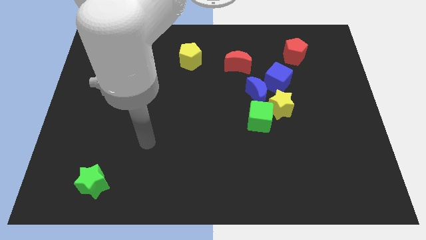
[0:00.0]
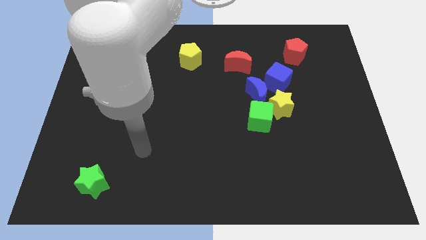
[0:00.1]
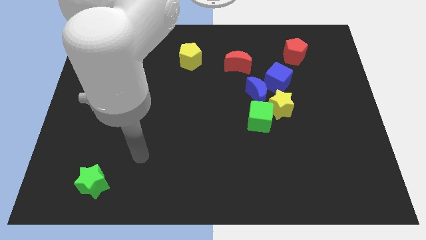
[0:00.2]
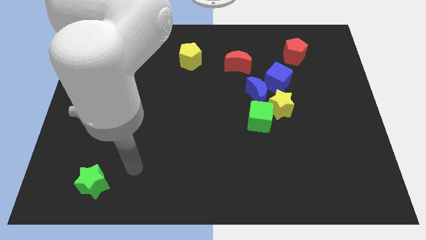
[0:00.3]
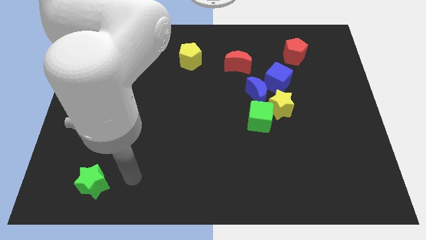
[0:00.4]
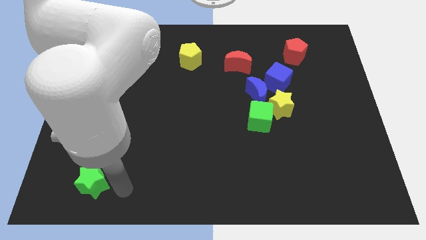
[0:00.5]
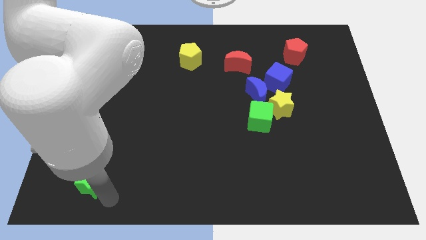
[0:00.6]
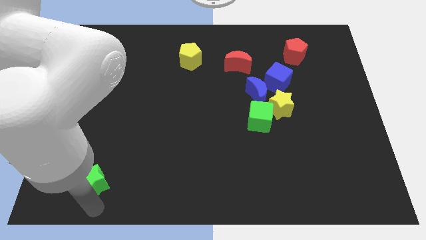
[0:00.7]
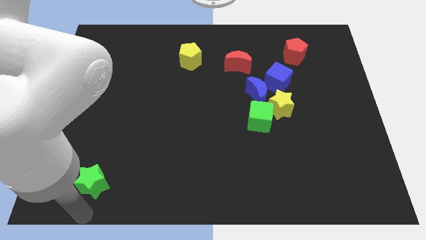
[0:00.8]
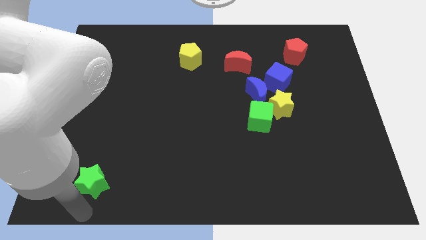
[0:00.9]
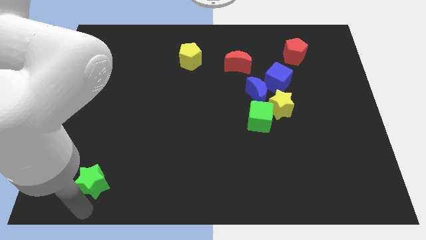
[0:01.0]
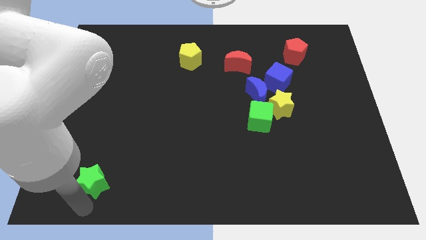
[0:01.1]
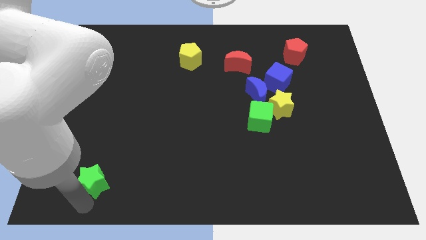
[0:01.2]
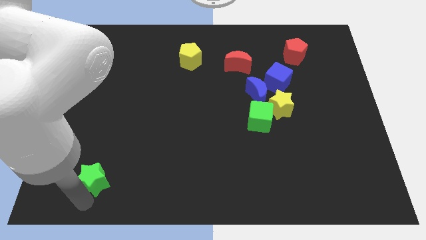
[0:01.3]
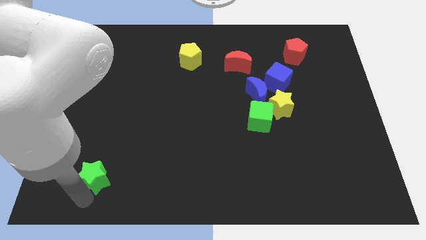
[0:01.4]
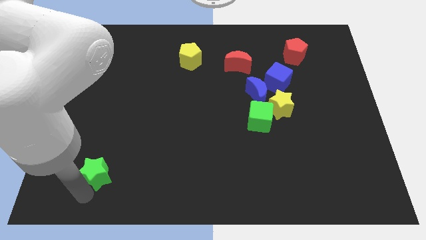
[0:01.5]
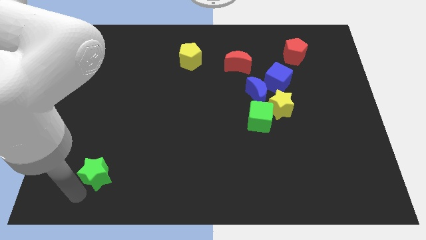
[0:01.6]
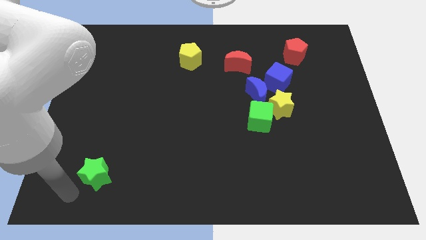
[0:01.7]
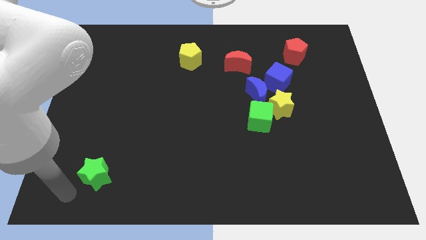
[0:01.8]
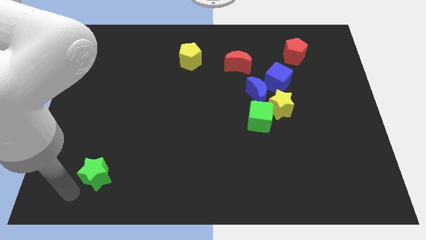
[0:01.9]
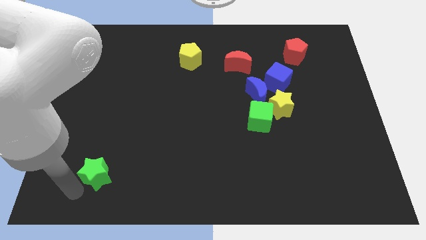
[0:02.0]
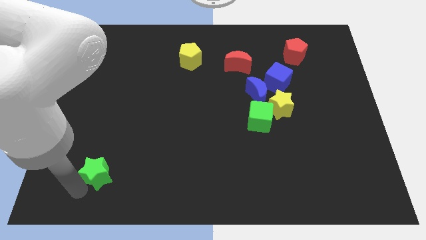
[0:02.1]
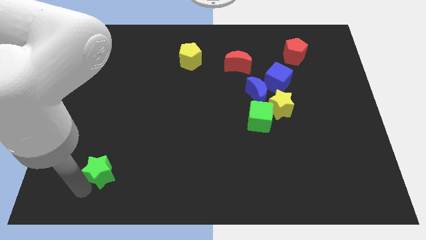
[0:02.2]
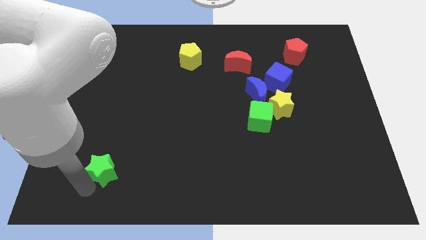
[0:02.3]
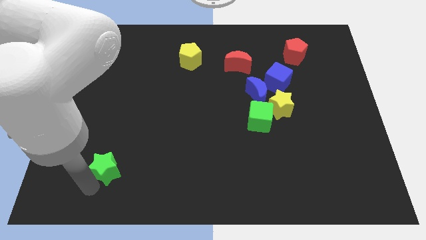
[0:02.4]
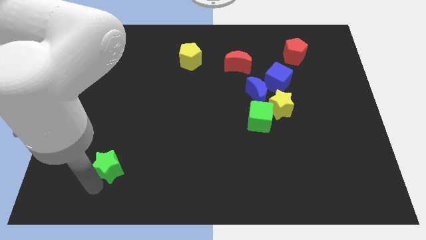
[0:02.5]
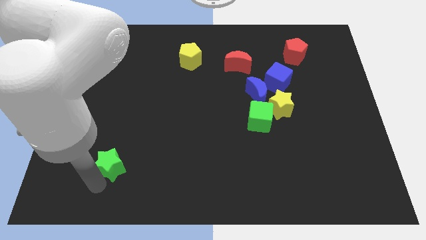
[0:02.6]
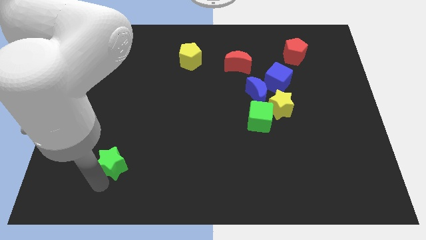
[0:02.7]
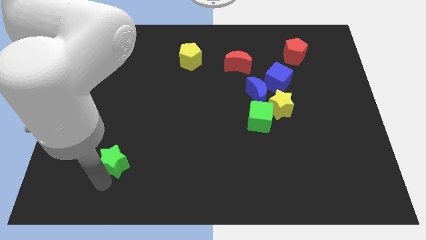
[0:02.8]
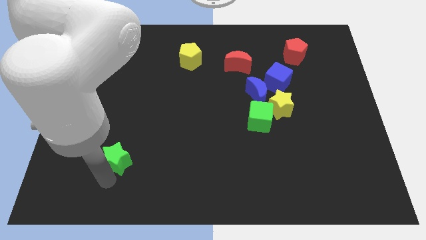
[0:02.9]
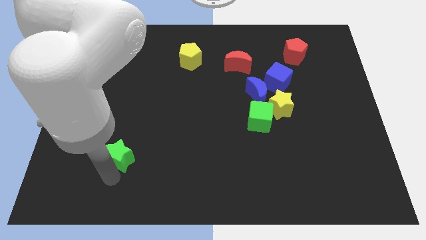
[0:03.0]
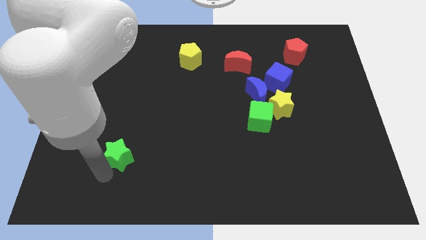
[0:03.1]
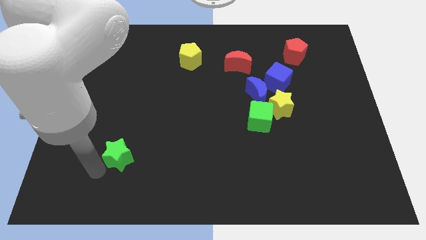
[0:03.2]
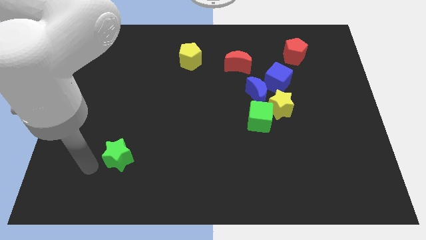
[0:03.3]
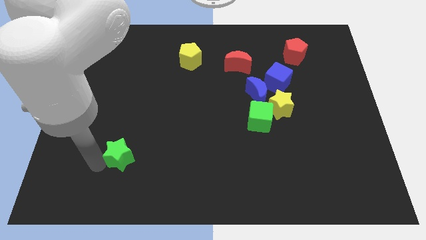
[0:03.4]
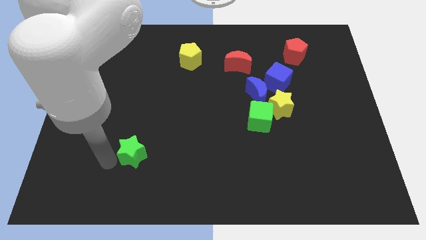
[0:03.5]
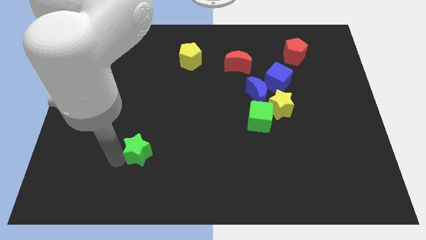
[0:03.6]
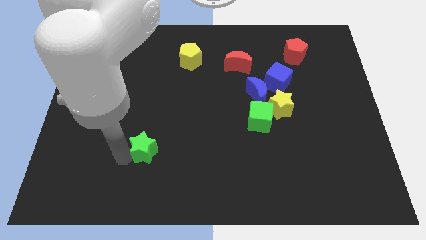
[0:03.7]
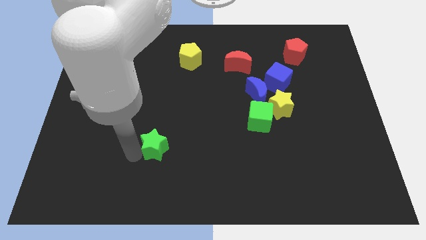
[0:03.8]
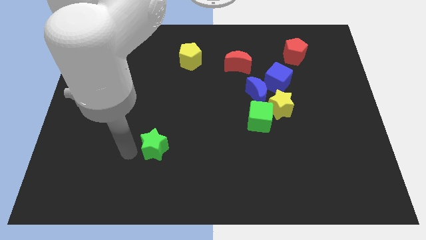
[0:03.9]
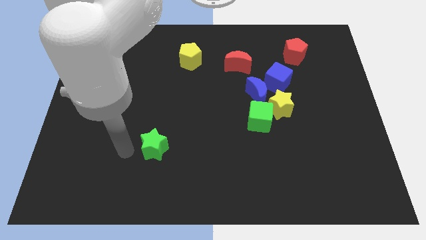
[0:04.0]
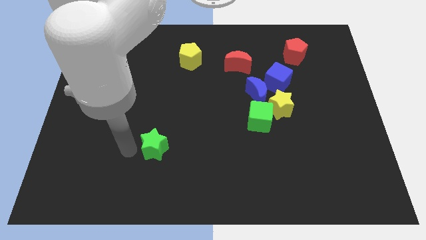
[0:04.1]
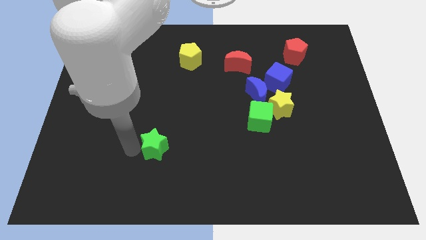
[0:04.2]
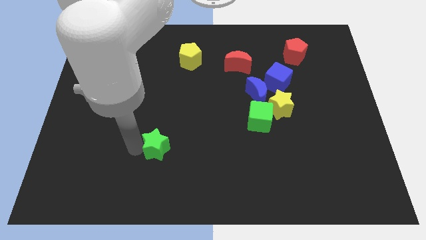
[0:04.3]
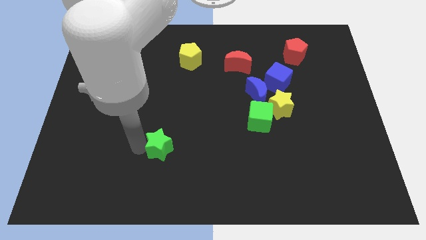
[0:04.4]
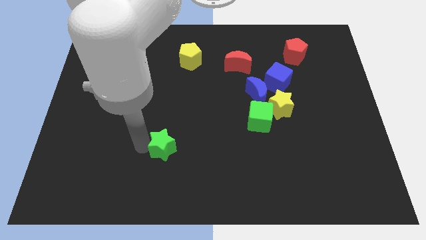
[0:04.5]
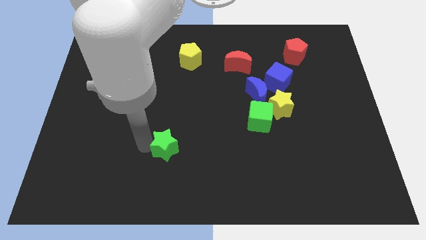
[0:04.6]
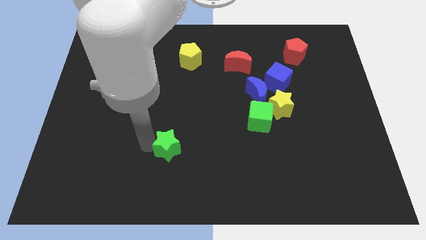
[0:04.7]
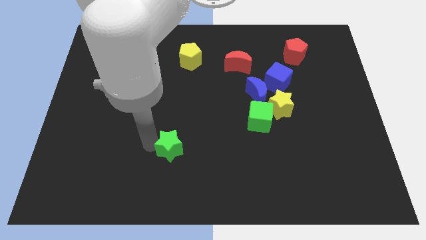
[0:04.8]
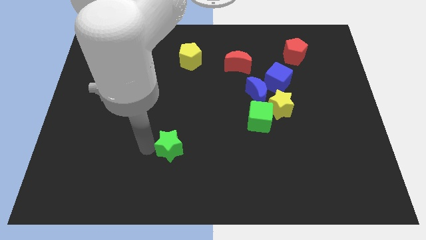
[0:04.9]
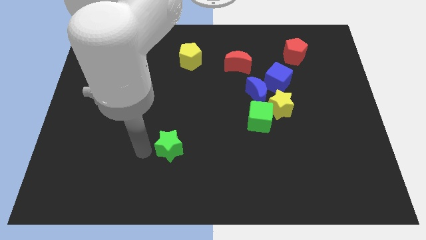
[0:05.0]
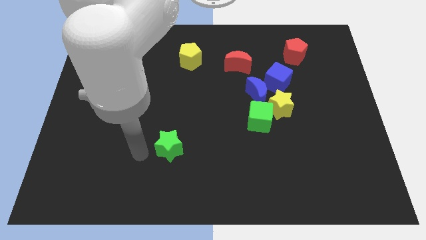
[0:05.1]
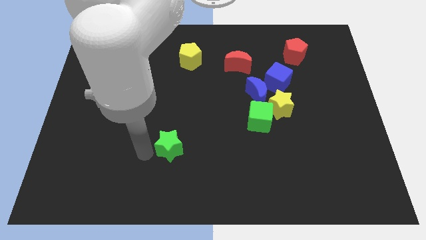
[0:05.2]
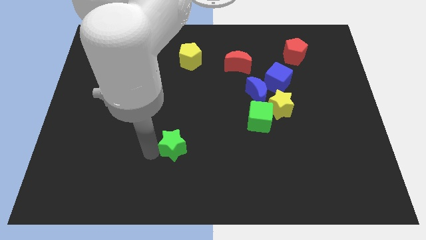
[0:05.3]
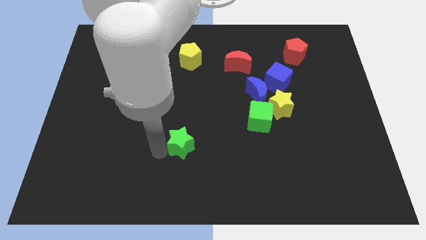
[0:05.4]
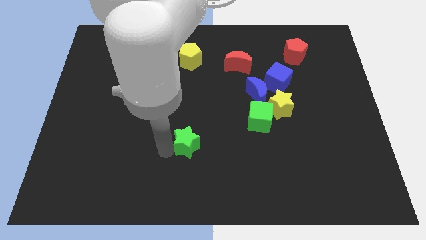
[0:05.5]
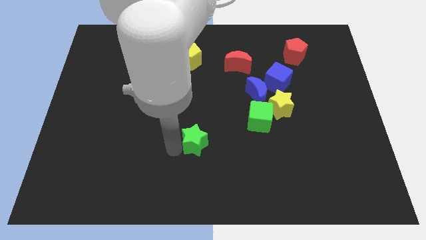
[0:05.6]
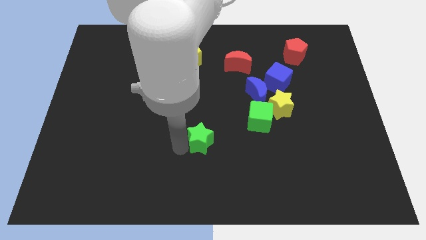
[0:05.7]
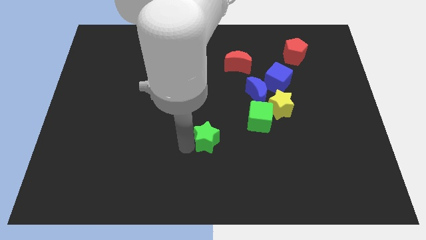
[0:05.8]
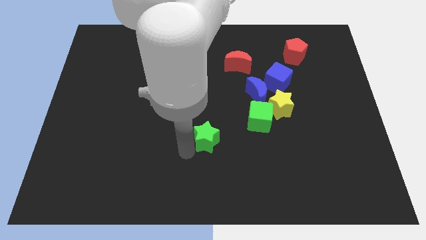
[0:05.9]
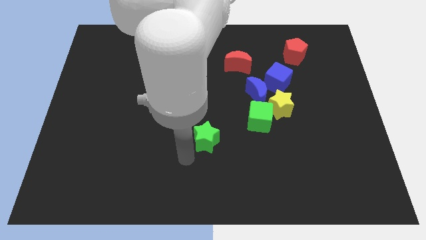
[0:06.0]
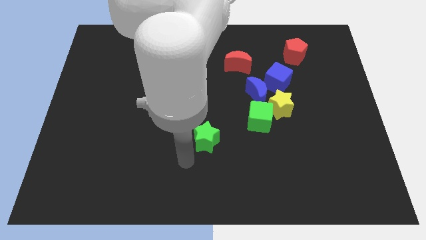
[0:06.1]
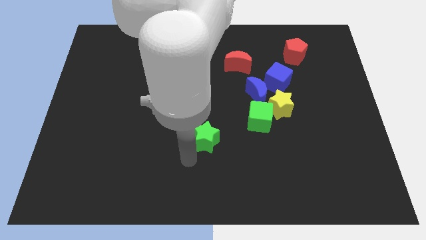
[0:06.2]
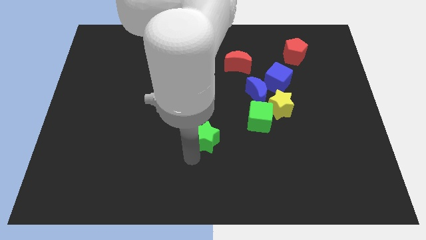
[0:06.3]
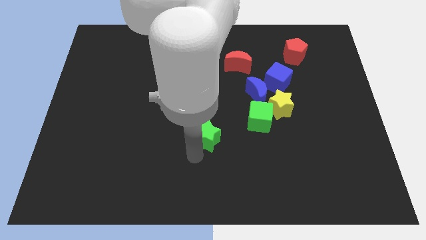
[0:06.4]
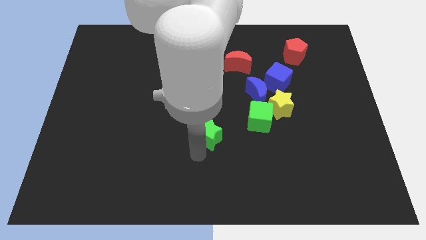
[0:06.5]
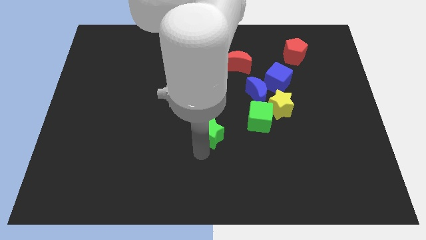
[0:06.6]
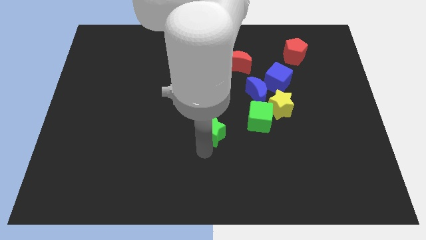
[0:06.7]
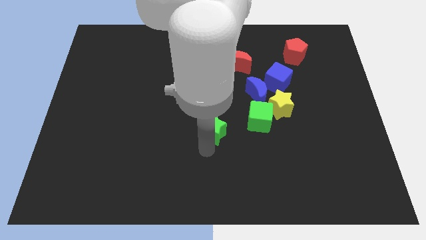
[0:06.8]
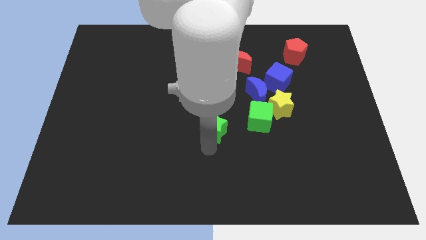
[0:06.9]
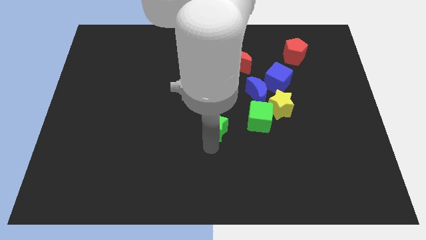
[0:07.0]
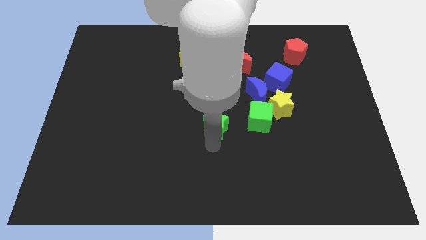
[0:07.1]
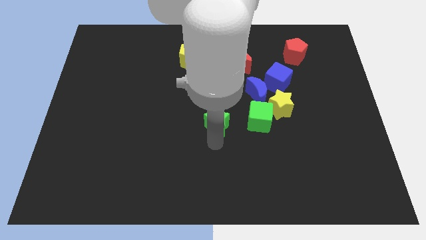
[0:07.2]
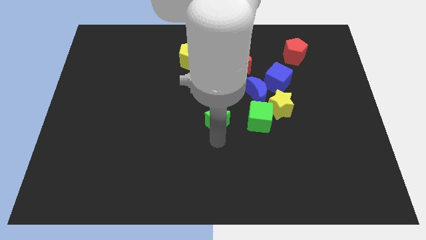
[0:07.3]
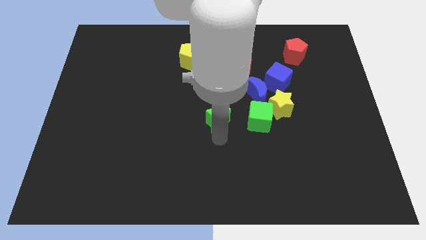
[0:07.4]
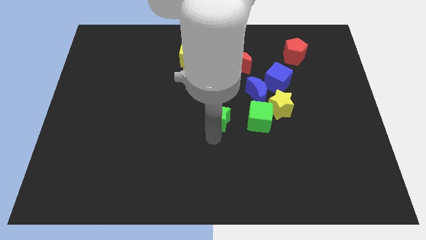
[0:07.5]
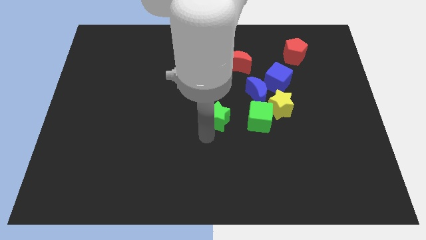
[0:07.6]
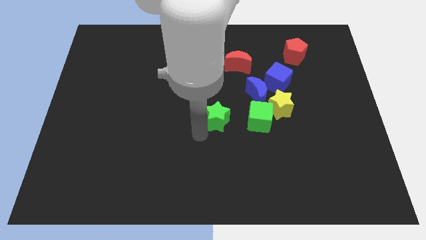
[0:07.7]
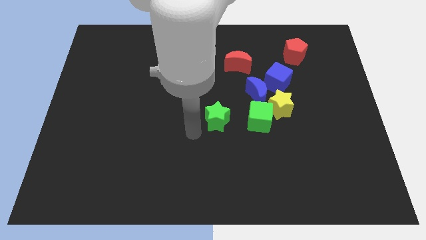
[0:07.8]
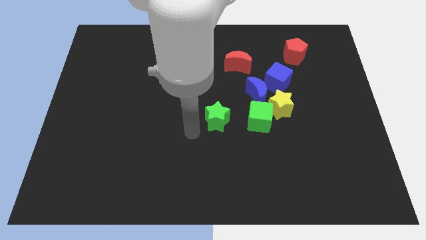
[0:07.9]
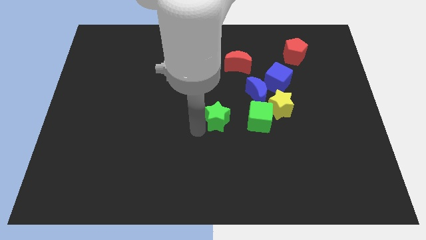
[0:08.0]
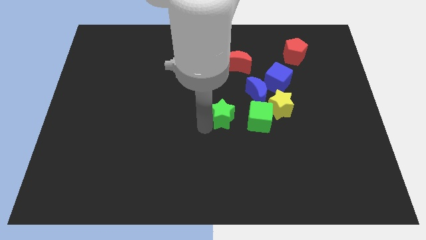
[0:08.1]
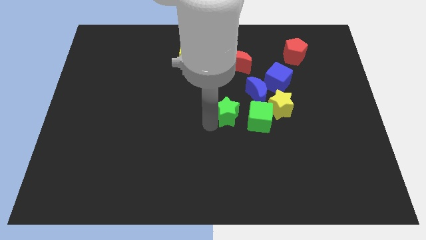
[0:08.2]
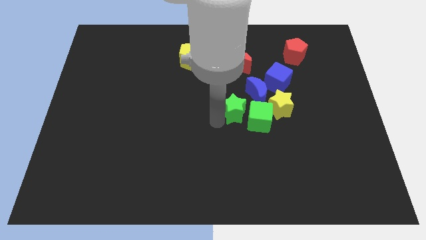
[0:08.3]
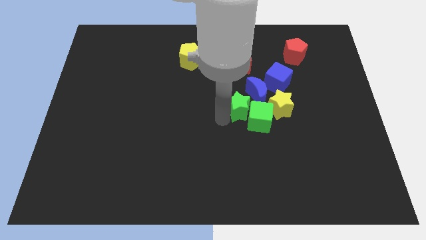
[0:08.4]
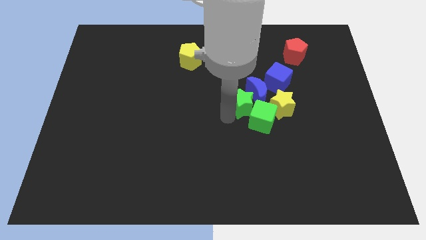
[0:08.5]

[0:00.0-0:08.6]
slide the green star to the blue moon
